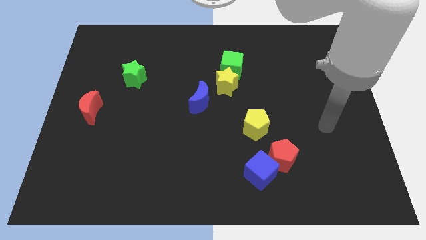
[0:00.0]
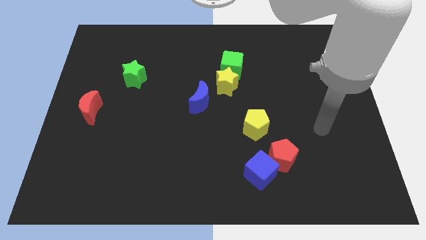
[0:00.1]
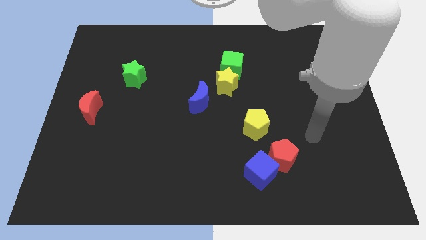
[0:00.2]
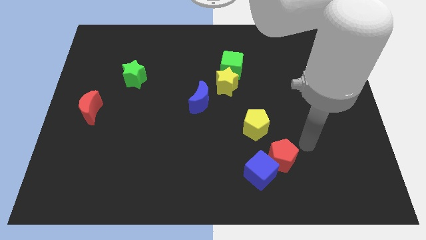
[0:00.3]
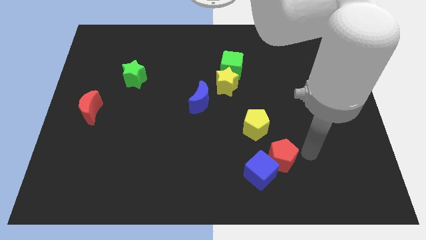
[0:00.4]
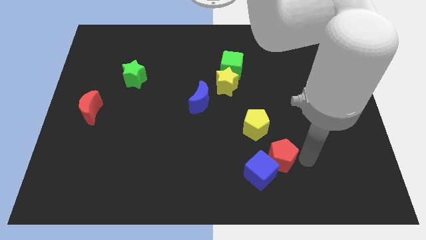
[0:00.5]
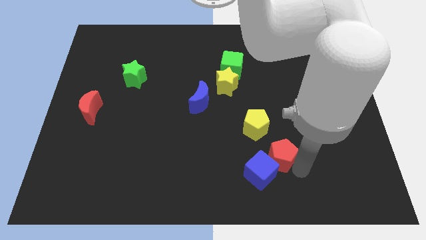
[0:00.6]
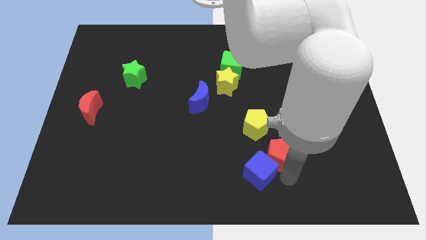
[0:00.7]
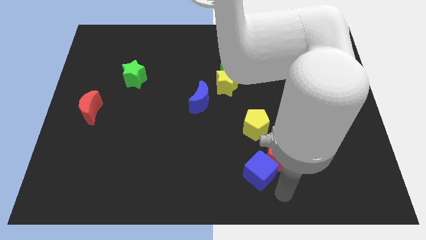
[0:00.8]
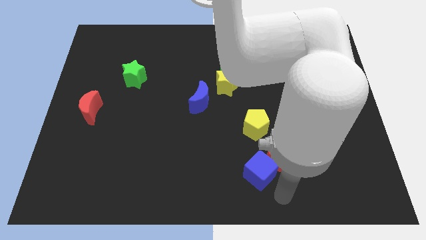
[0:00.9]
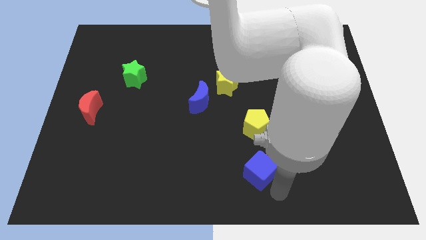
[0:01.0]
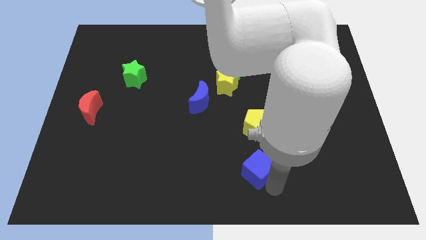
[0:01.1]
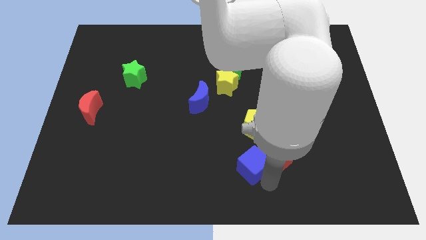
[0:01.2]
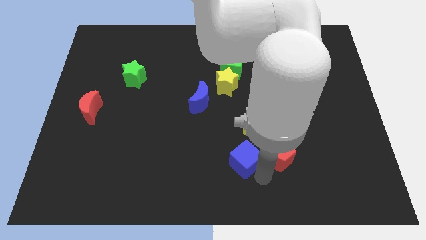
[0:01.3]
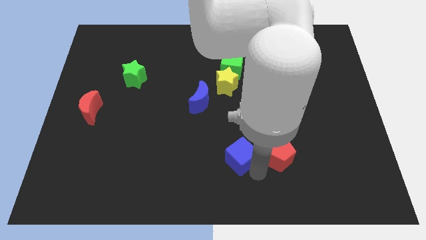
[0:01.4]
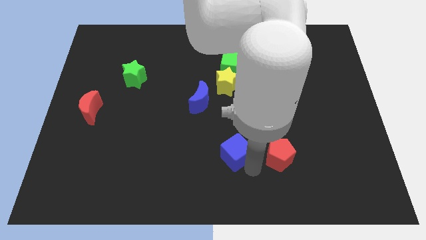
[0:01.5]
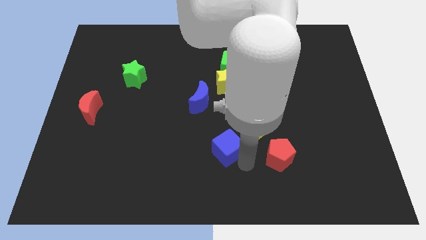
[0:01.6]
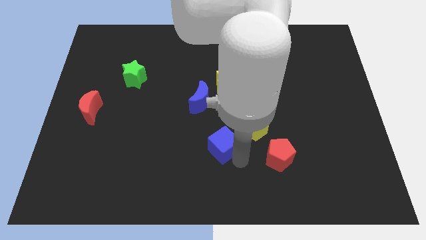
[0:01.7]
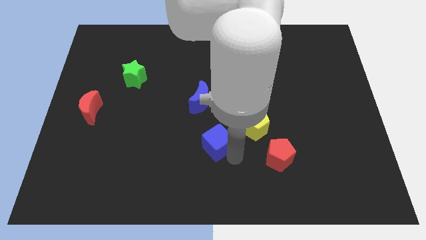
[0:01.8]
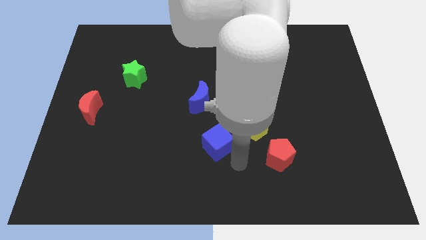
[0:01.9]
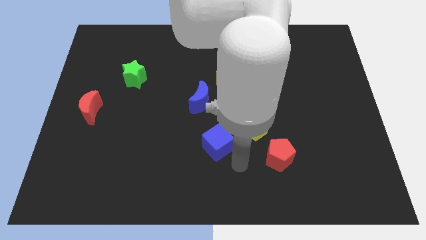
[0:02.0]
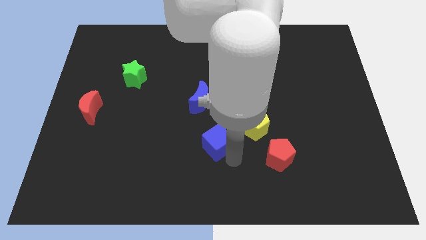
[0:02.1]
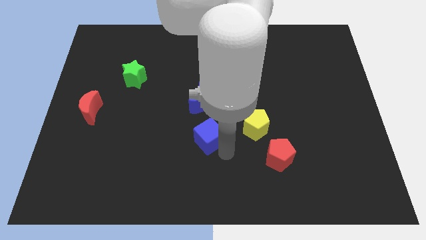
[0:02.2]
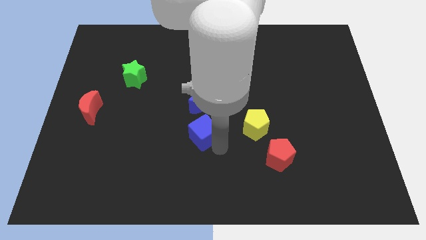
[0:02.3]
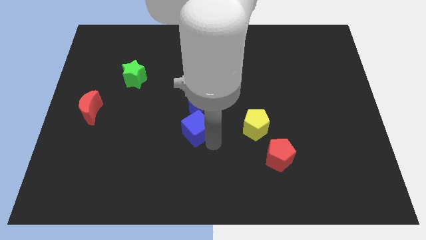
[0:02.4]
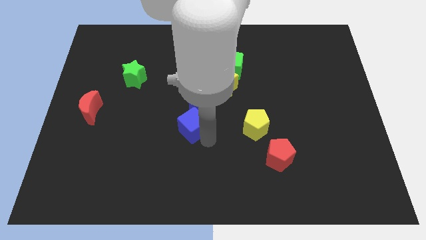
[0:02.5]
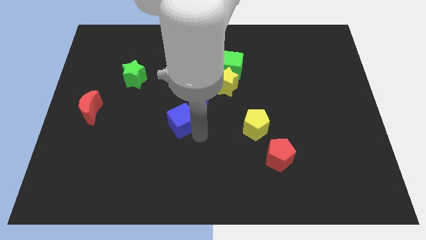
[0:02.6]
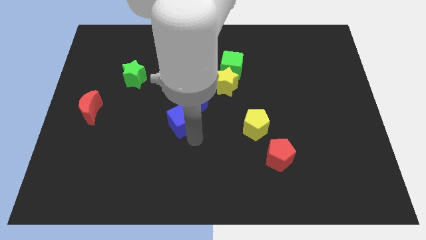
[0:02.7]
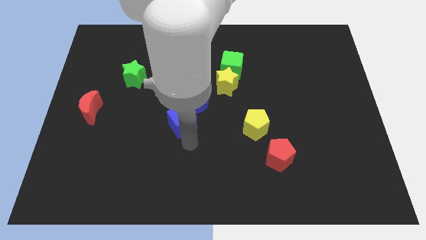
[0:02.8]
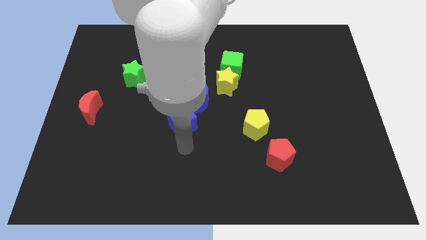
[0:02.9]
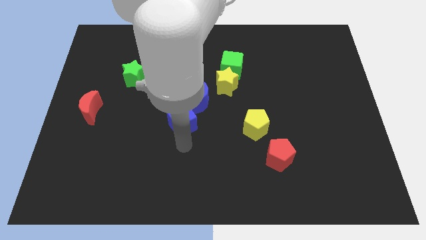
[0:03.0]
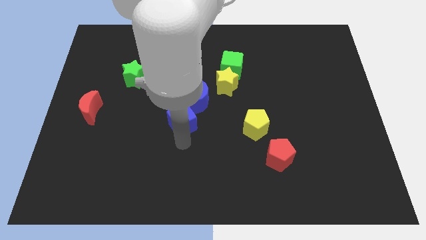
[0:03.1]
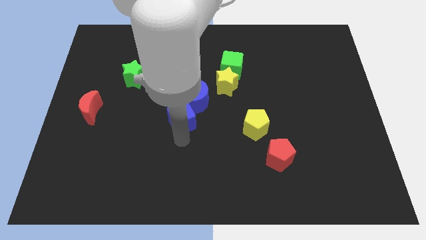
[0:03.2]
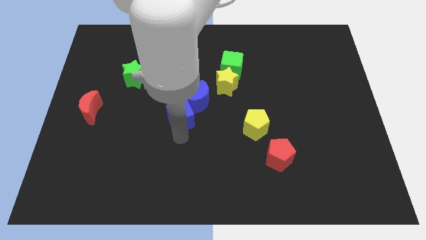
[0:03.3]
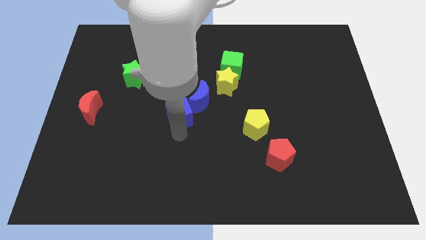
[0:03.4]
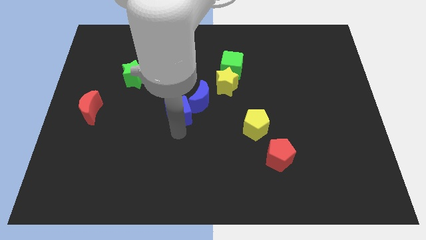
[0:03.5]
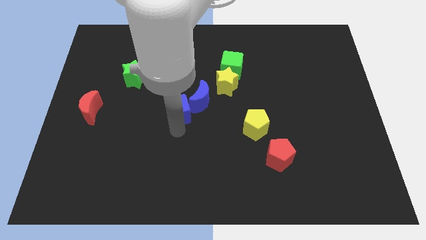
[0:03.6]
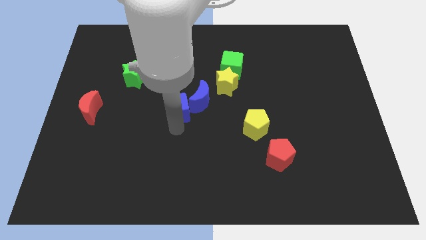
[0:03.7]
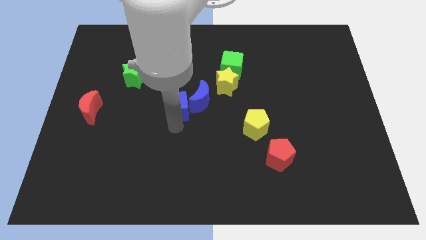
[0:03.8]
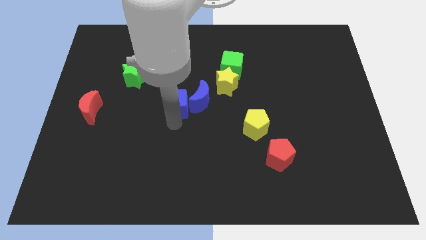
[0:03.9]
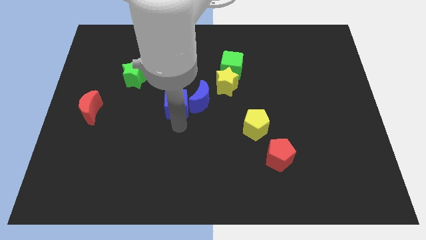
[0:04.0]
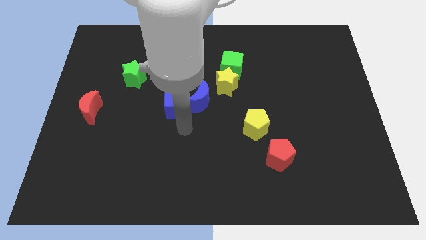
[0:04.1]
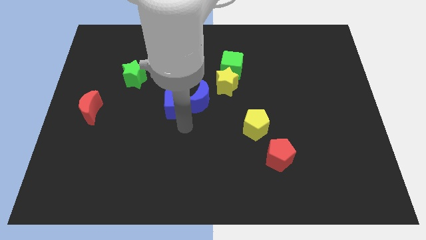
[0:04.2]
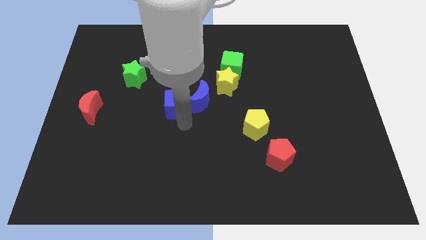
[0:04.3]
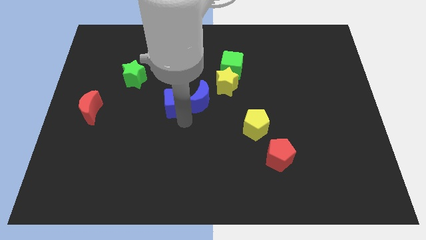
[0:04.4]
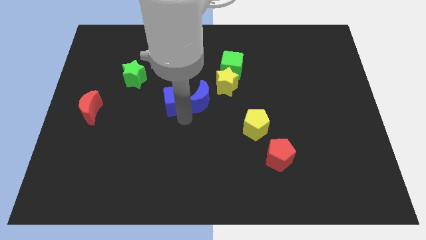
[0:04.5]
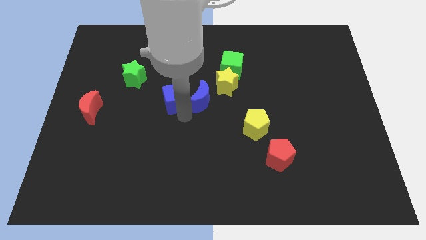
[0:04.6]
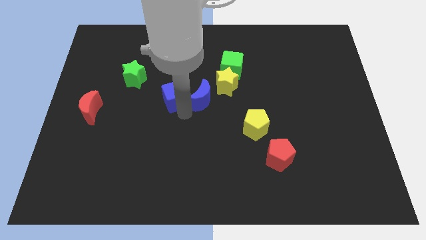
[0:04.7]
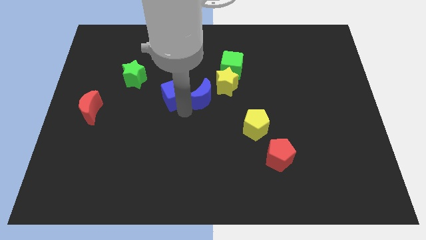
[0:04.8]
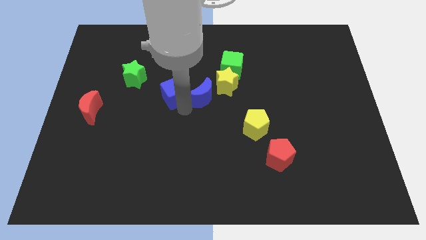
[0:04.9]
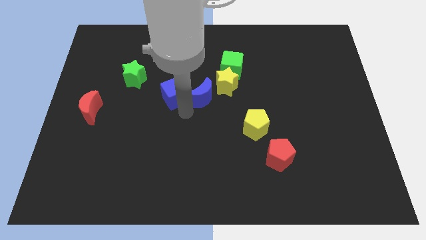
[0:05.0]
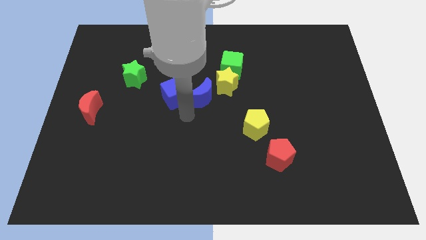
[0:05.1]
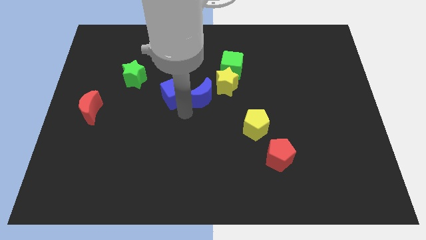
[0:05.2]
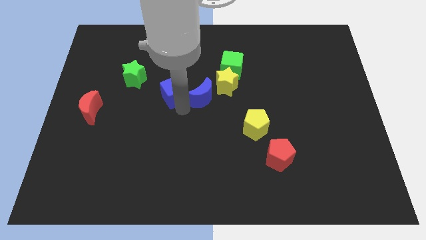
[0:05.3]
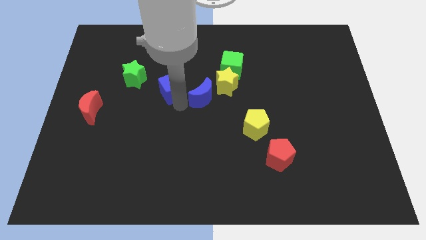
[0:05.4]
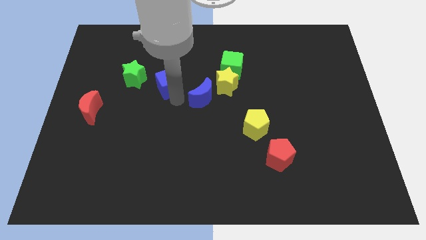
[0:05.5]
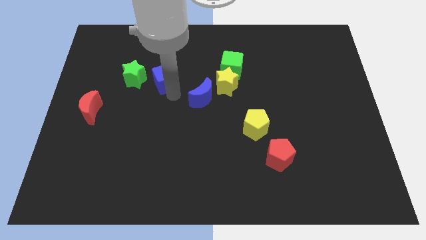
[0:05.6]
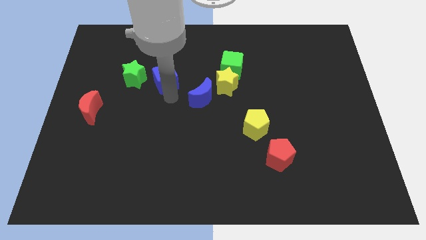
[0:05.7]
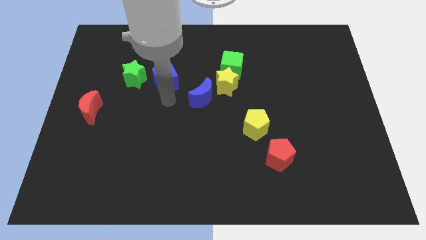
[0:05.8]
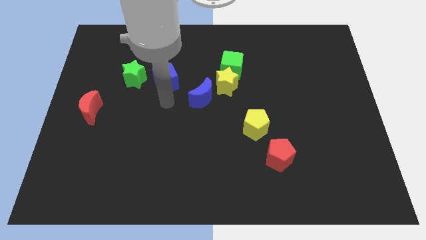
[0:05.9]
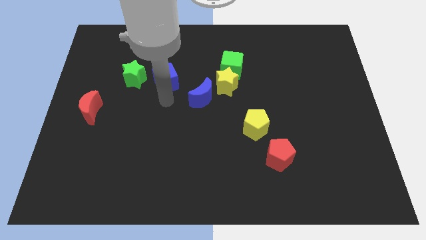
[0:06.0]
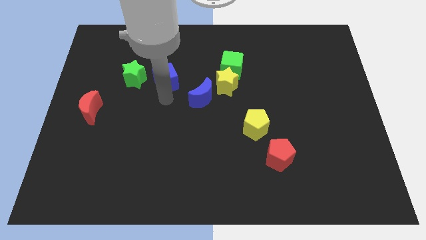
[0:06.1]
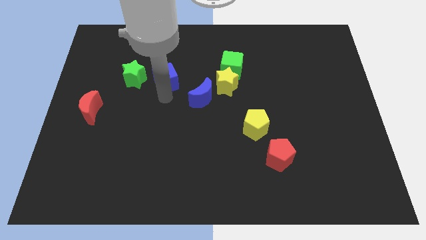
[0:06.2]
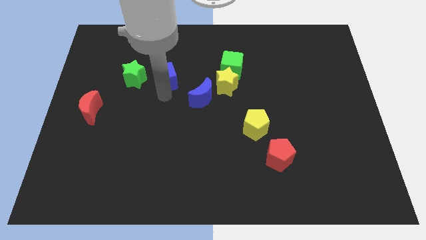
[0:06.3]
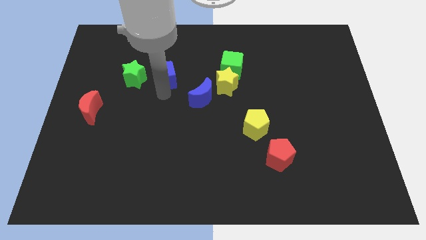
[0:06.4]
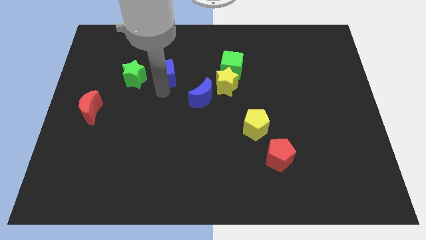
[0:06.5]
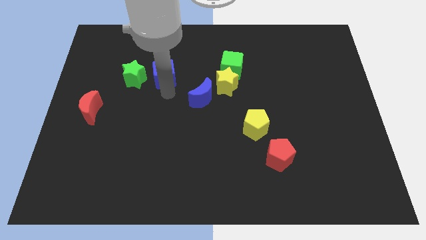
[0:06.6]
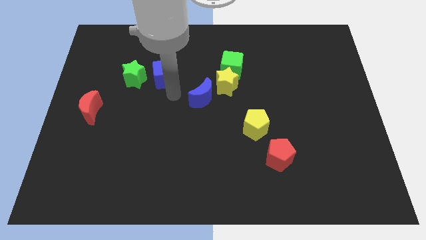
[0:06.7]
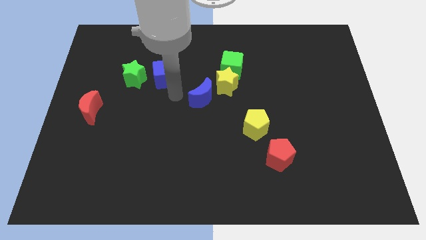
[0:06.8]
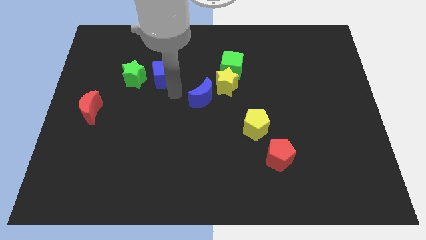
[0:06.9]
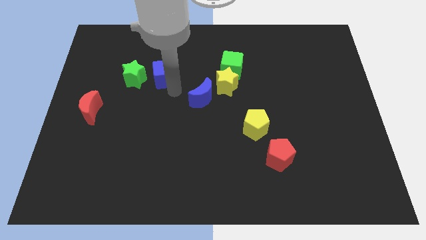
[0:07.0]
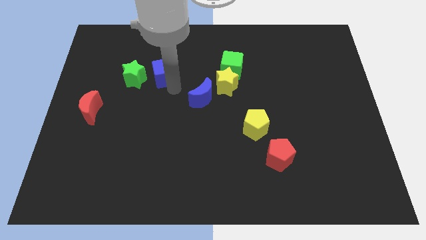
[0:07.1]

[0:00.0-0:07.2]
slide the blue cube to the top right of the green star

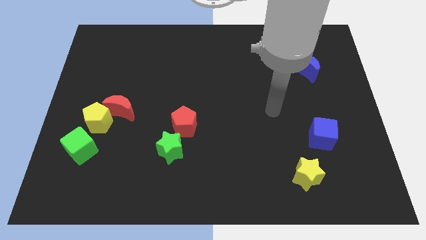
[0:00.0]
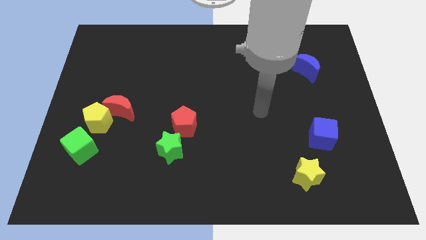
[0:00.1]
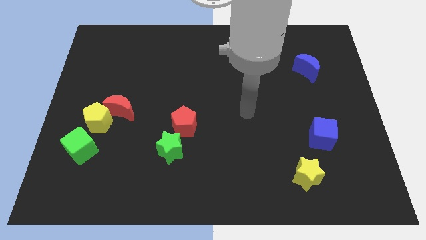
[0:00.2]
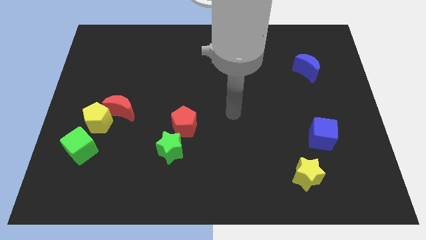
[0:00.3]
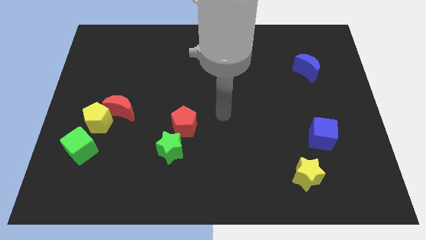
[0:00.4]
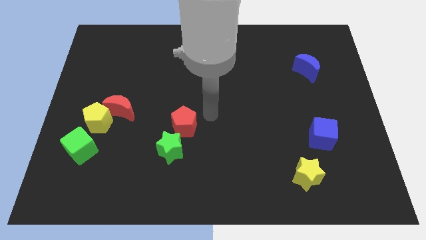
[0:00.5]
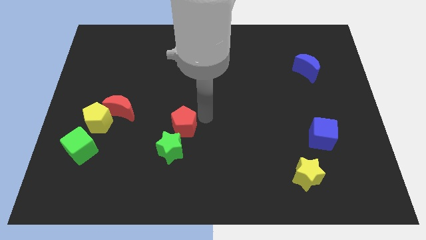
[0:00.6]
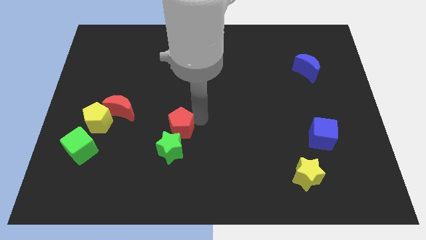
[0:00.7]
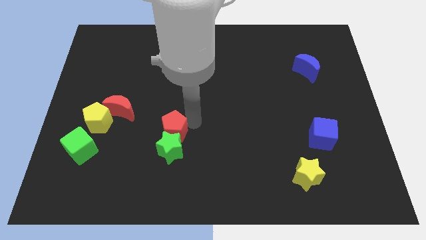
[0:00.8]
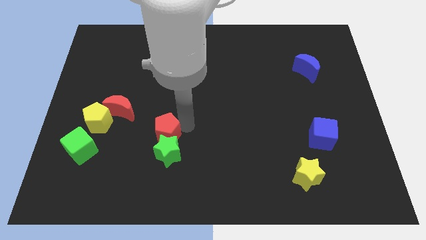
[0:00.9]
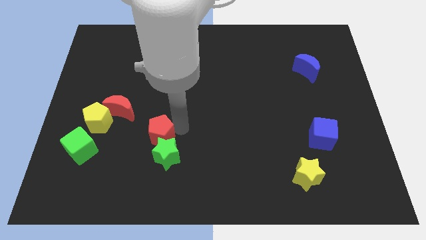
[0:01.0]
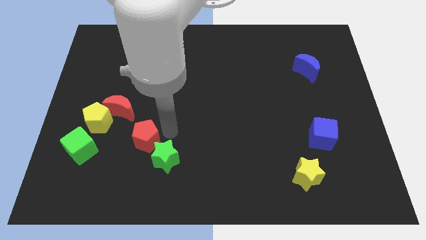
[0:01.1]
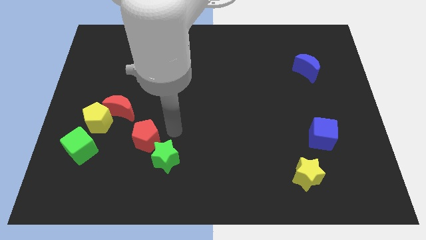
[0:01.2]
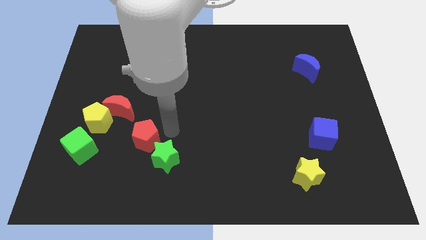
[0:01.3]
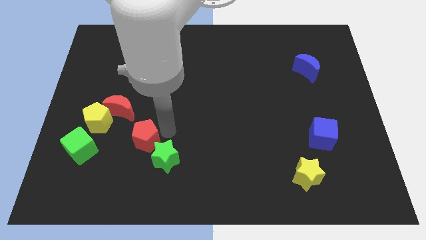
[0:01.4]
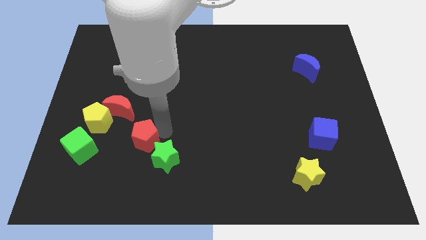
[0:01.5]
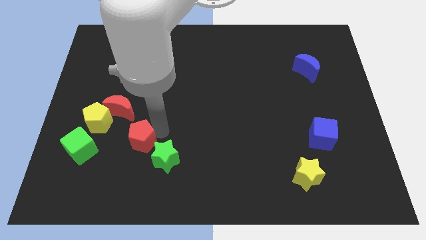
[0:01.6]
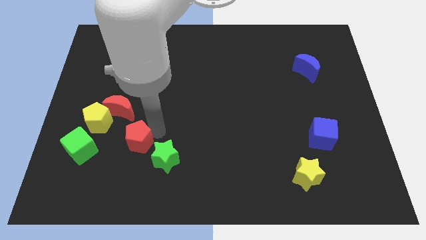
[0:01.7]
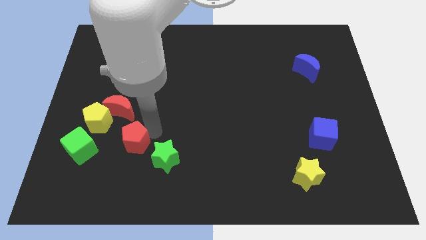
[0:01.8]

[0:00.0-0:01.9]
slide the red pentagon to the bottom side of the red moon
